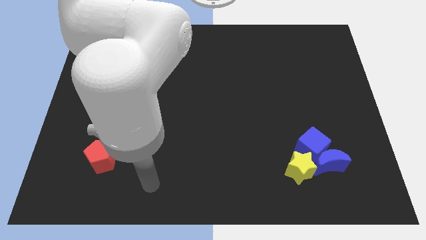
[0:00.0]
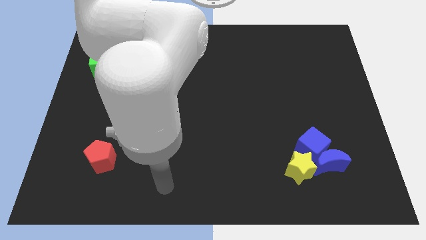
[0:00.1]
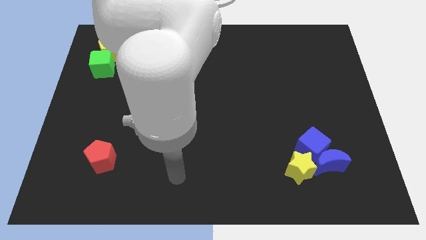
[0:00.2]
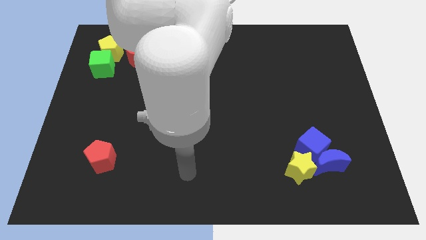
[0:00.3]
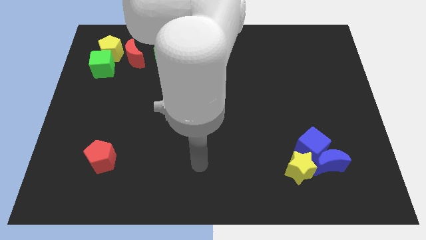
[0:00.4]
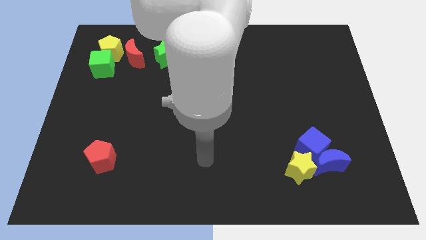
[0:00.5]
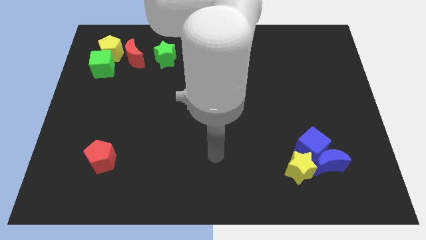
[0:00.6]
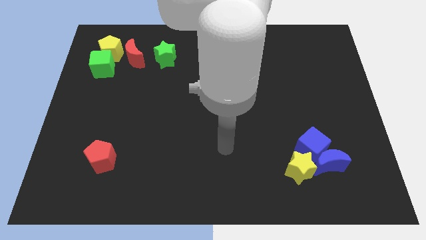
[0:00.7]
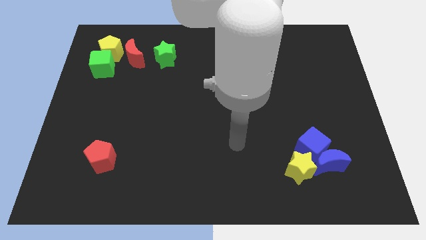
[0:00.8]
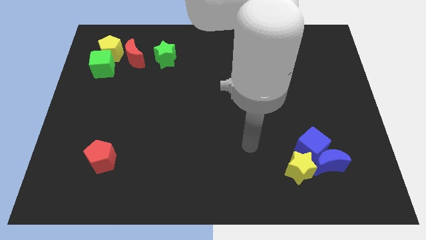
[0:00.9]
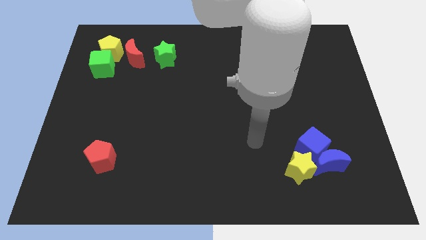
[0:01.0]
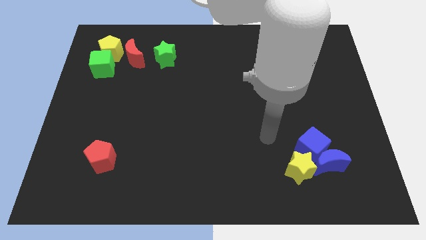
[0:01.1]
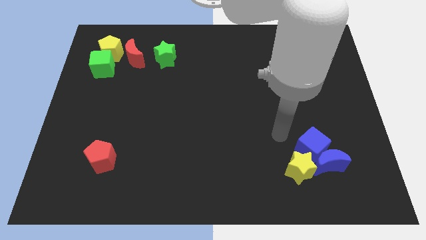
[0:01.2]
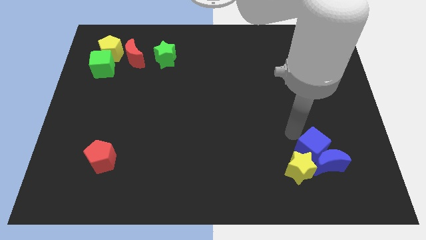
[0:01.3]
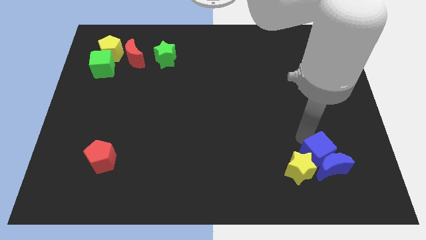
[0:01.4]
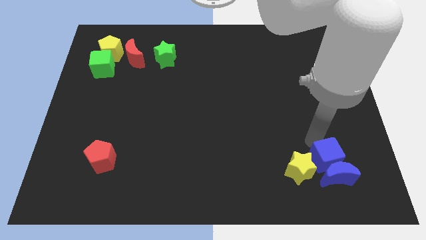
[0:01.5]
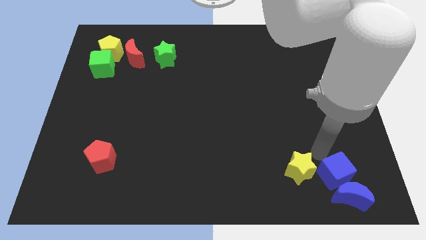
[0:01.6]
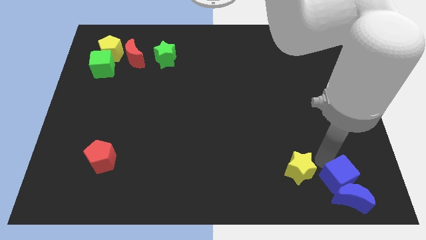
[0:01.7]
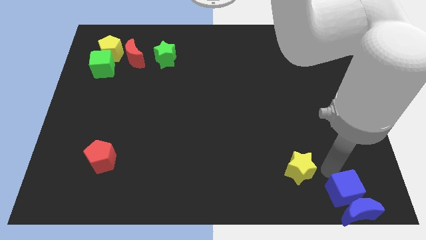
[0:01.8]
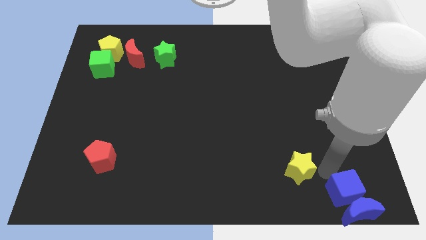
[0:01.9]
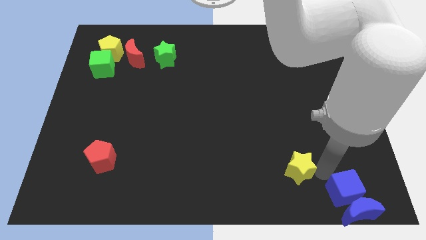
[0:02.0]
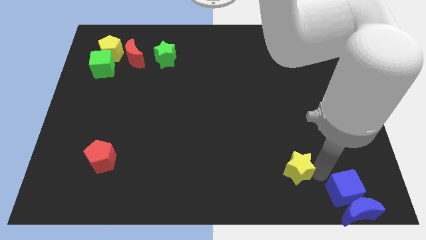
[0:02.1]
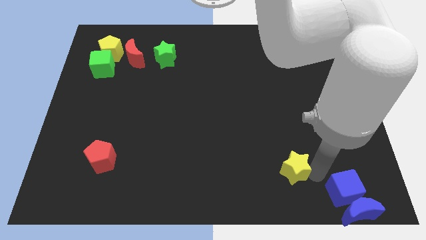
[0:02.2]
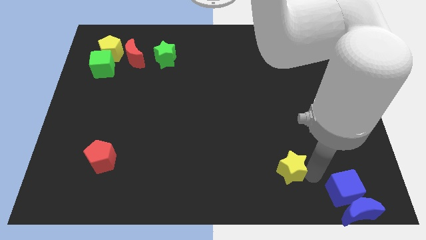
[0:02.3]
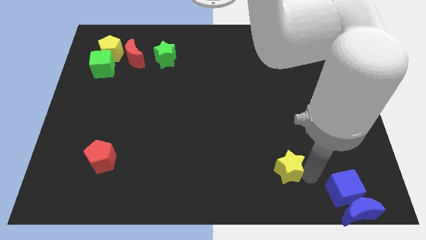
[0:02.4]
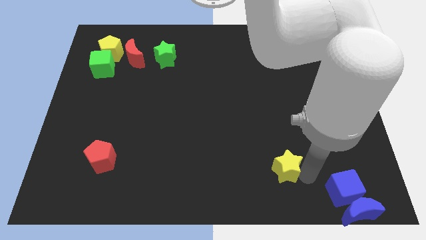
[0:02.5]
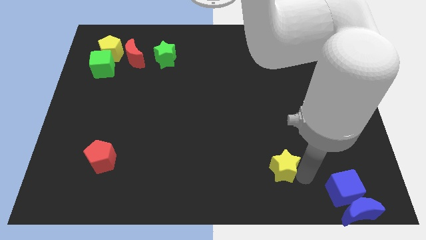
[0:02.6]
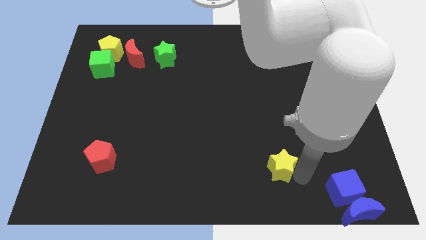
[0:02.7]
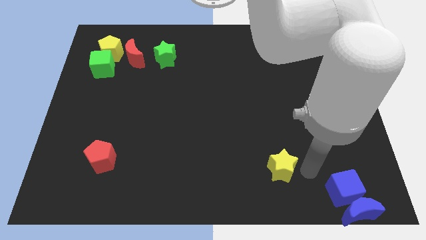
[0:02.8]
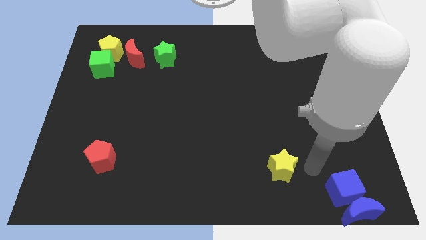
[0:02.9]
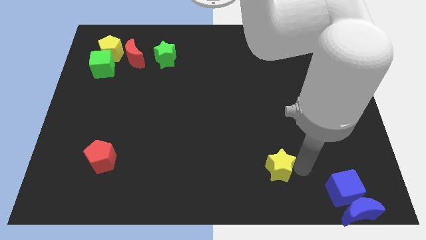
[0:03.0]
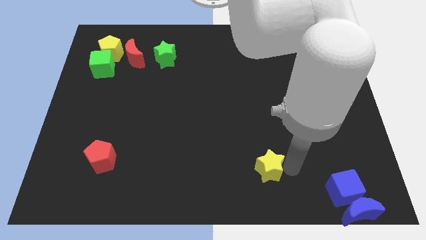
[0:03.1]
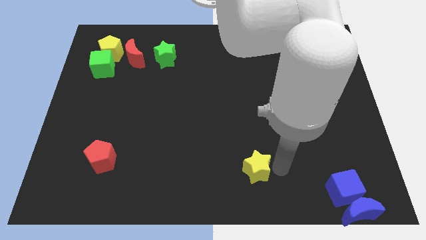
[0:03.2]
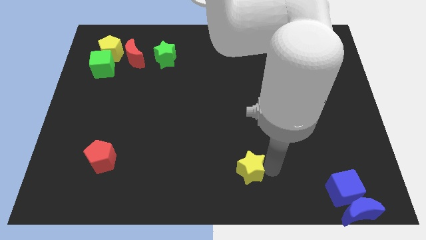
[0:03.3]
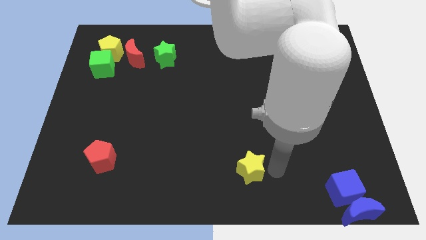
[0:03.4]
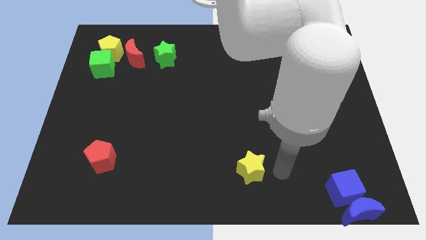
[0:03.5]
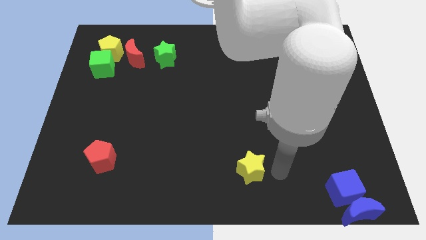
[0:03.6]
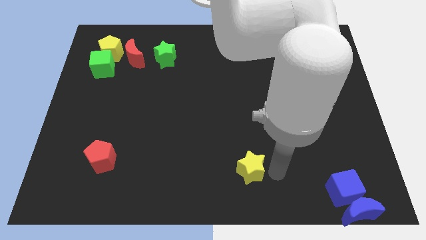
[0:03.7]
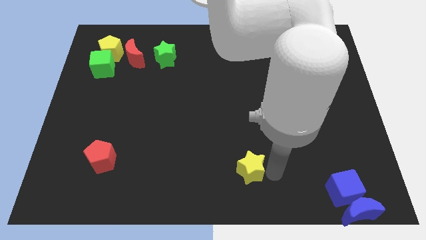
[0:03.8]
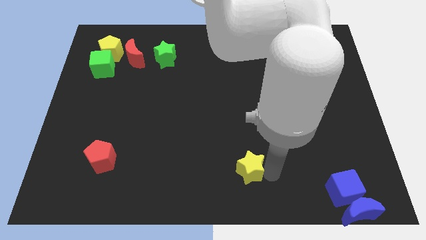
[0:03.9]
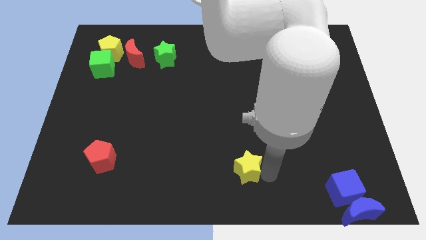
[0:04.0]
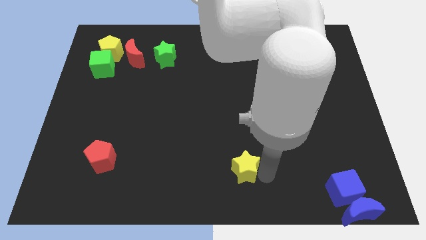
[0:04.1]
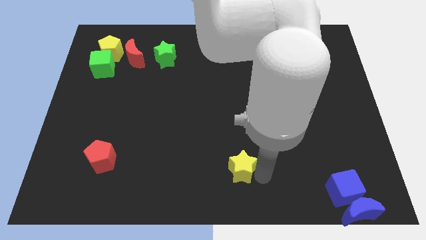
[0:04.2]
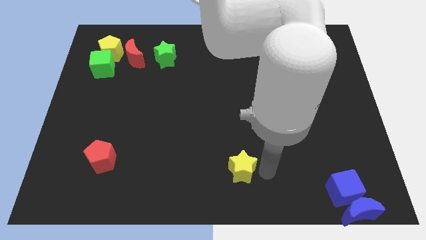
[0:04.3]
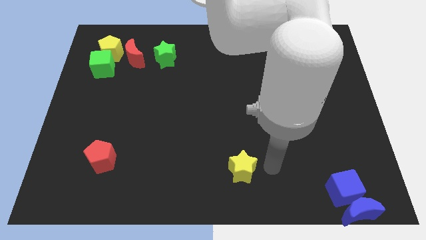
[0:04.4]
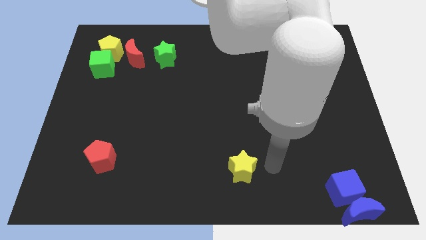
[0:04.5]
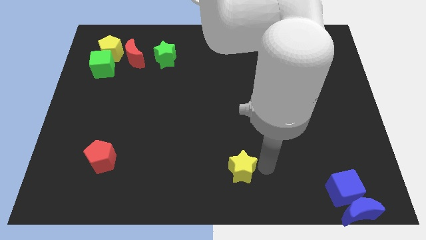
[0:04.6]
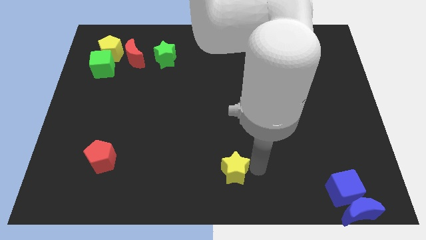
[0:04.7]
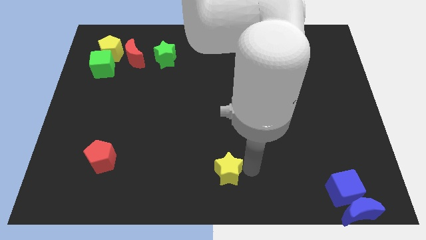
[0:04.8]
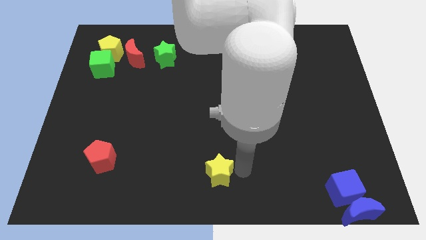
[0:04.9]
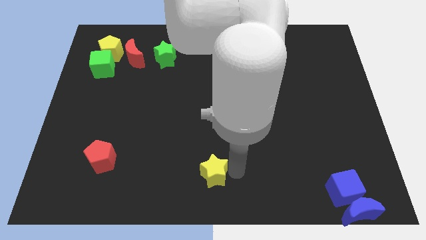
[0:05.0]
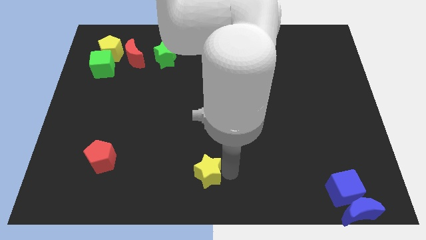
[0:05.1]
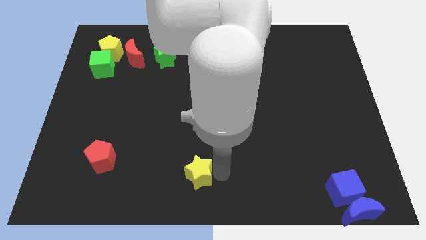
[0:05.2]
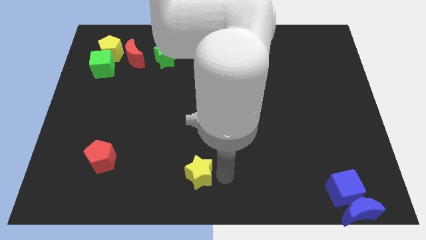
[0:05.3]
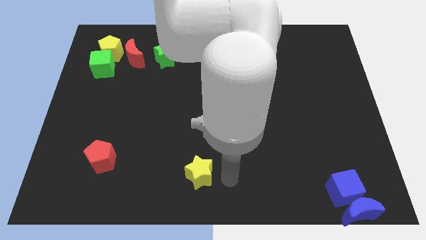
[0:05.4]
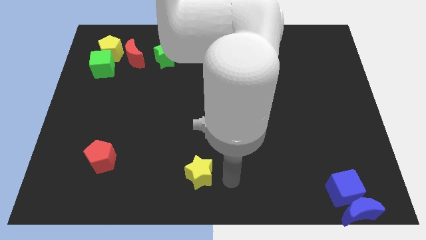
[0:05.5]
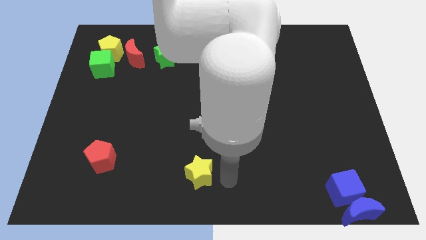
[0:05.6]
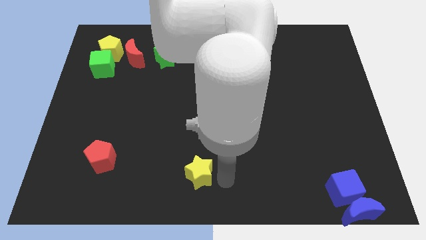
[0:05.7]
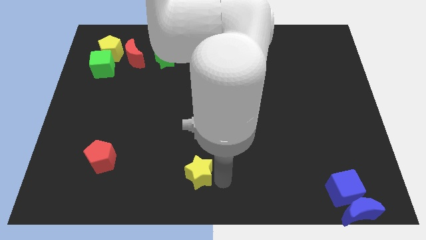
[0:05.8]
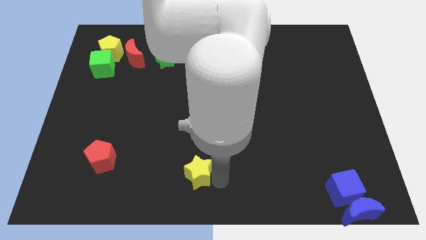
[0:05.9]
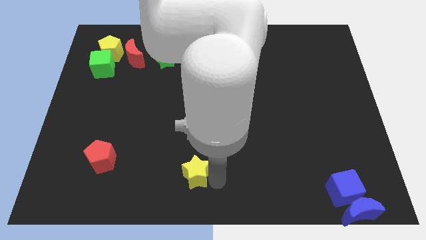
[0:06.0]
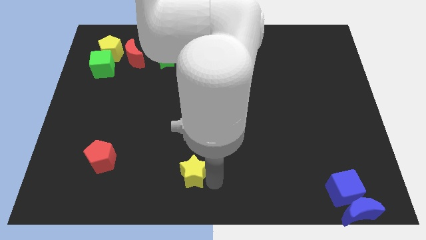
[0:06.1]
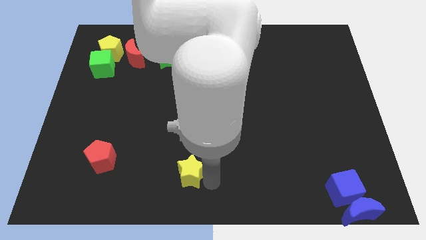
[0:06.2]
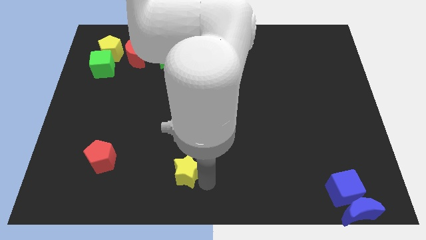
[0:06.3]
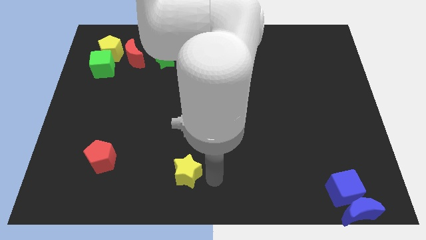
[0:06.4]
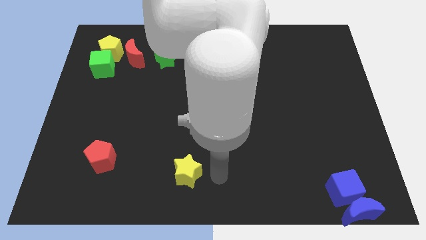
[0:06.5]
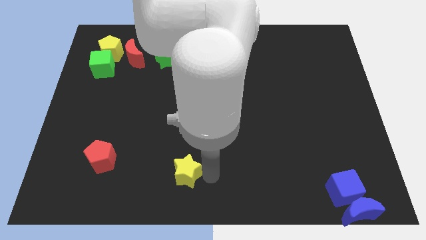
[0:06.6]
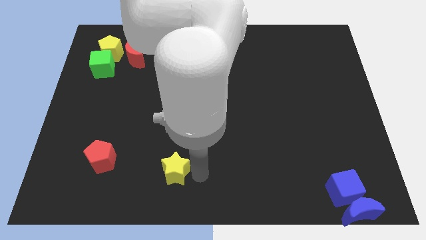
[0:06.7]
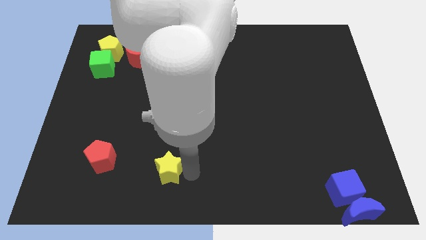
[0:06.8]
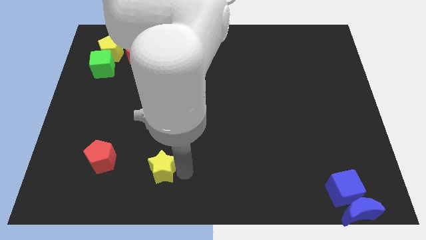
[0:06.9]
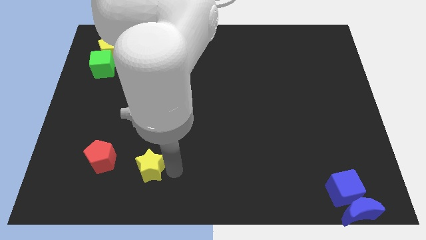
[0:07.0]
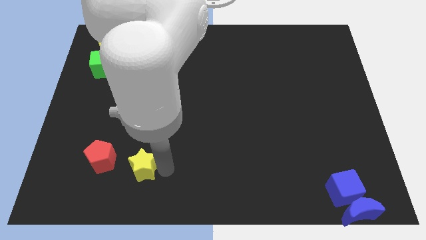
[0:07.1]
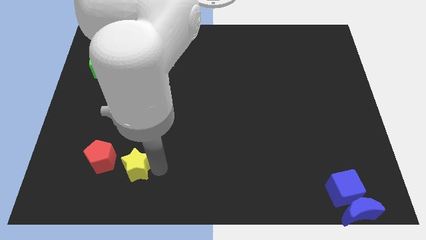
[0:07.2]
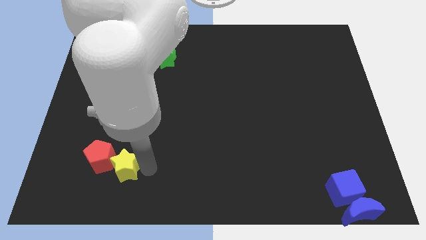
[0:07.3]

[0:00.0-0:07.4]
slide the yellow star close to the red pentagon

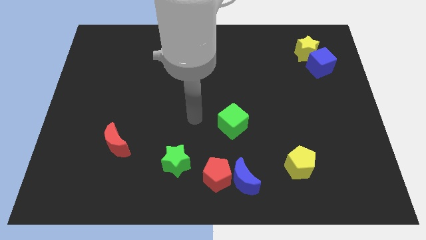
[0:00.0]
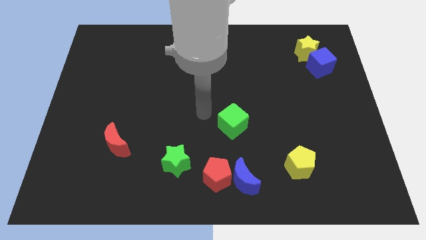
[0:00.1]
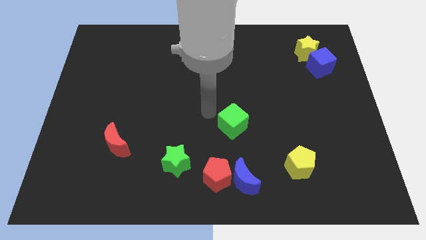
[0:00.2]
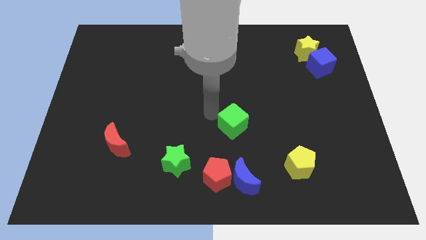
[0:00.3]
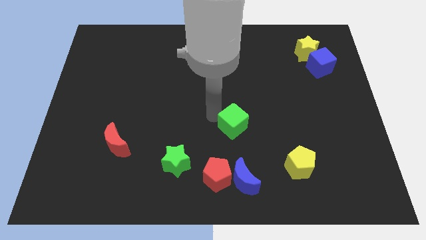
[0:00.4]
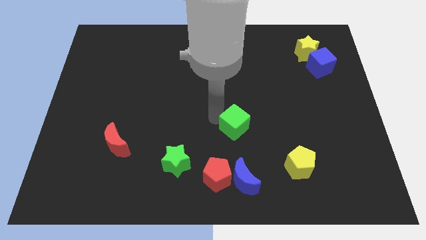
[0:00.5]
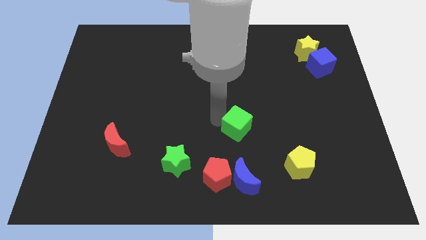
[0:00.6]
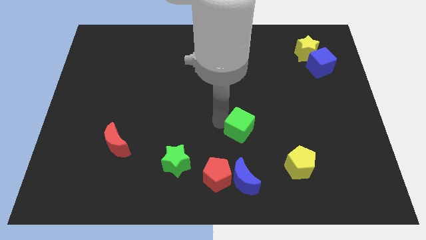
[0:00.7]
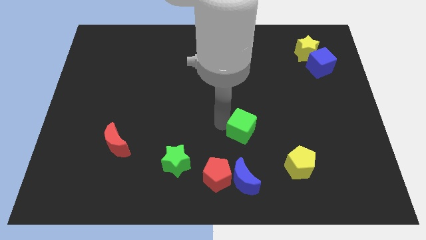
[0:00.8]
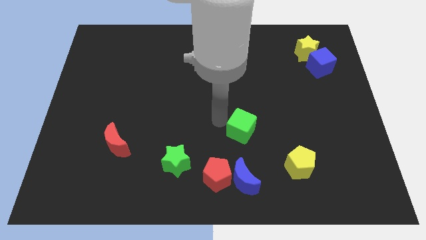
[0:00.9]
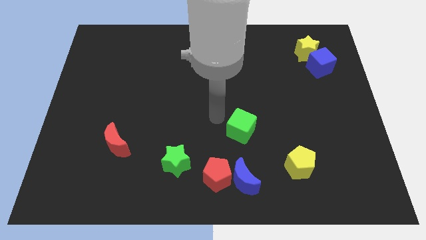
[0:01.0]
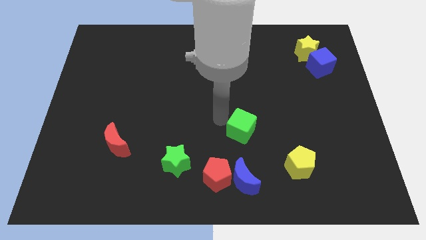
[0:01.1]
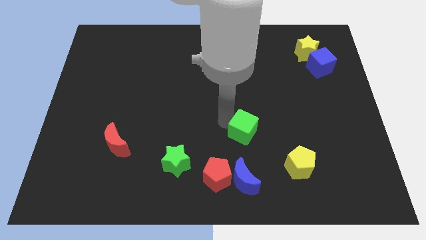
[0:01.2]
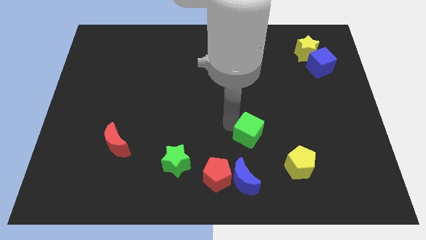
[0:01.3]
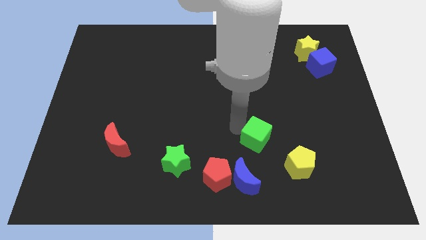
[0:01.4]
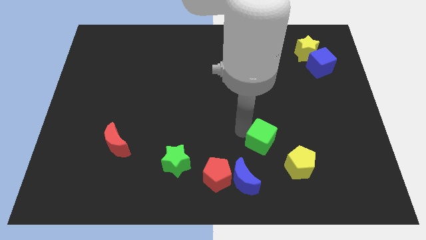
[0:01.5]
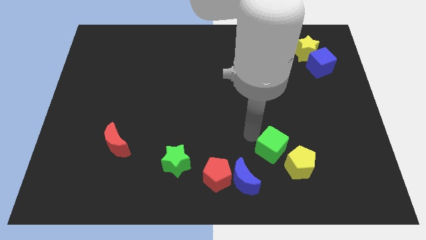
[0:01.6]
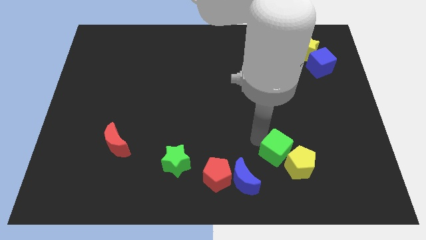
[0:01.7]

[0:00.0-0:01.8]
move the green cube next to the yellow pentagon
